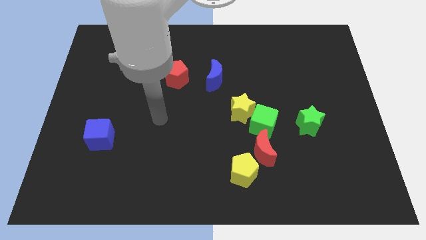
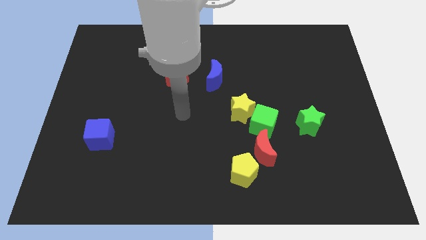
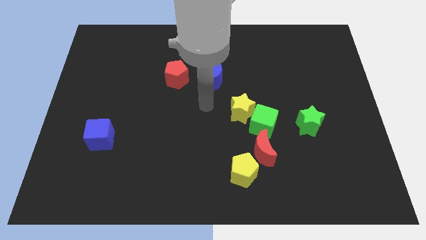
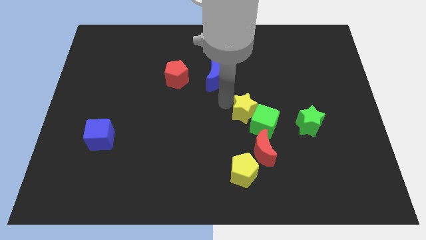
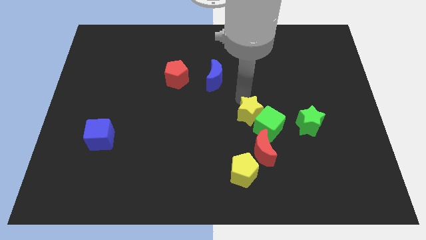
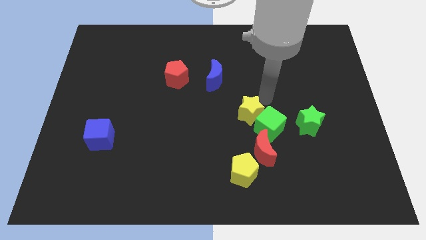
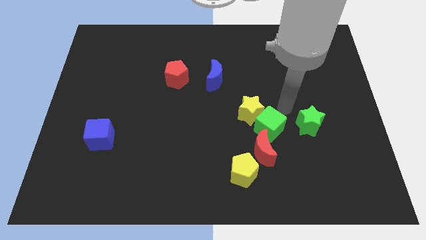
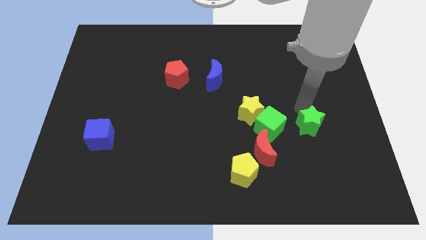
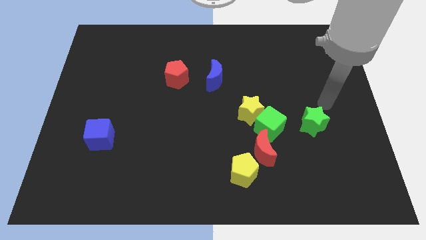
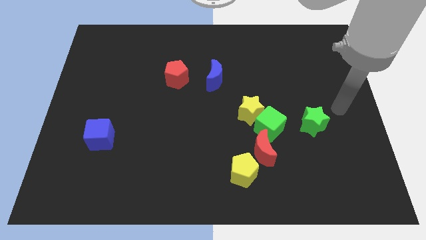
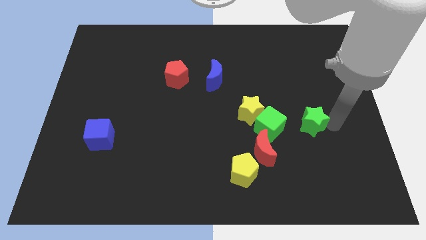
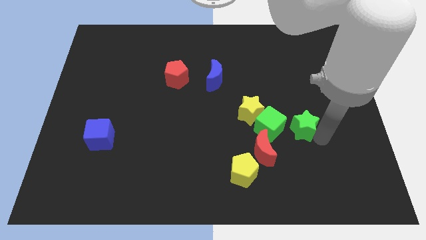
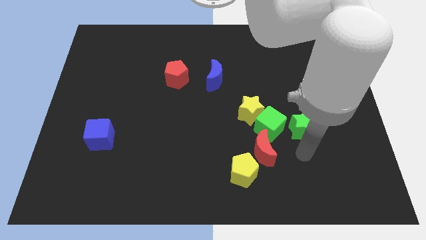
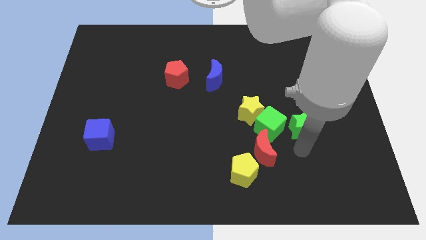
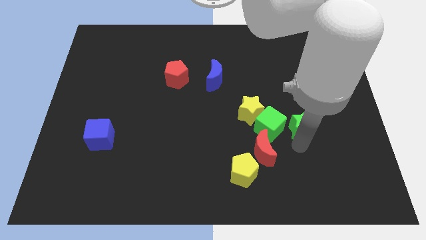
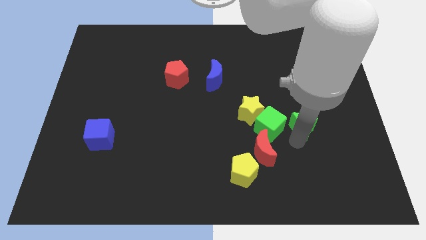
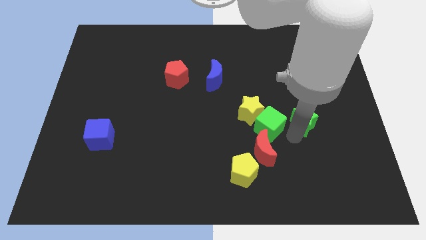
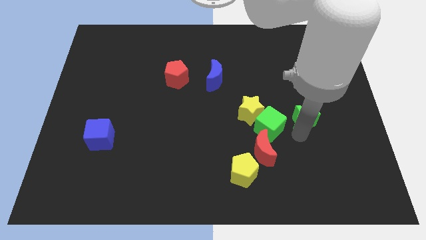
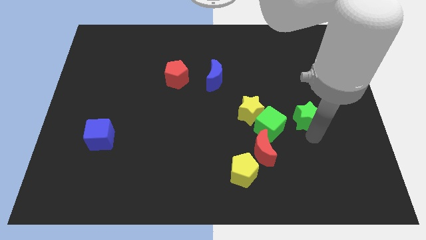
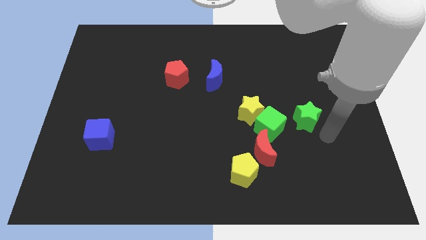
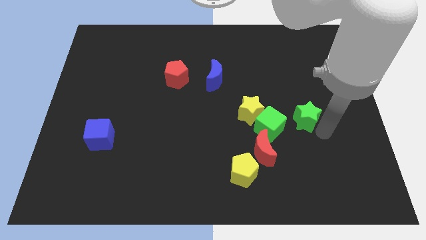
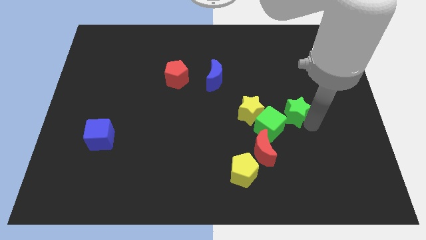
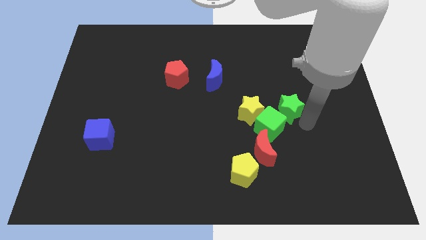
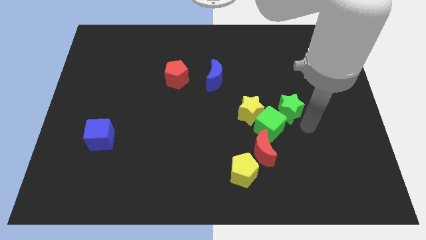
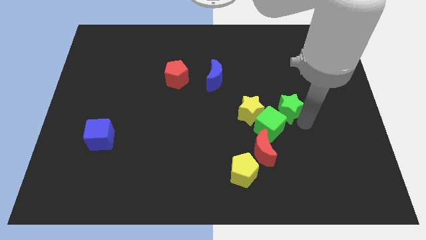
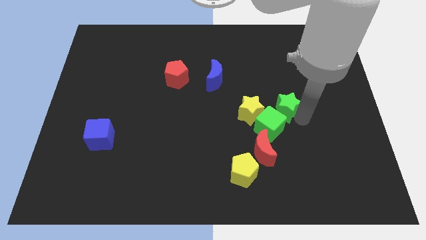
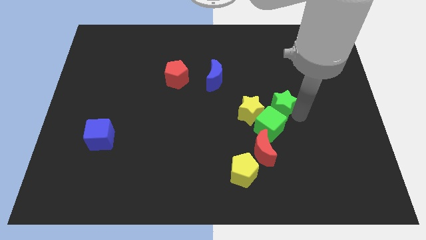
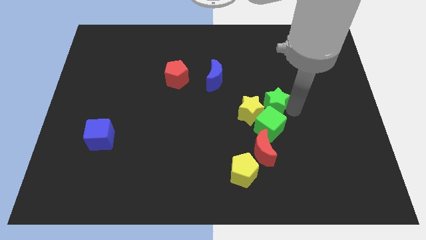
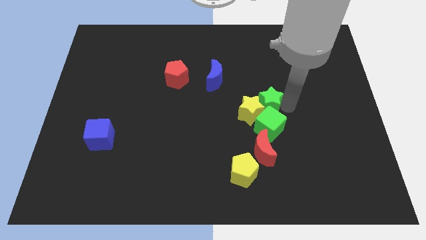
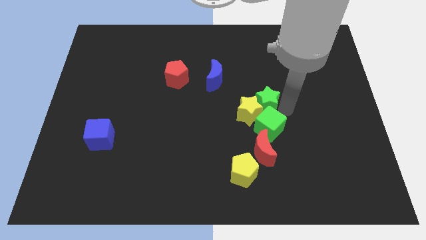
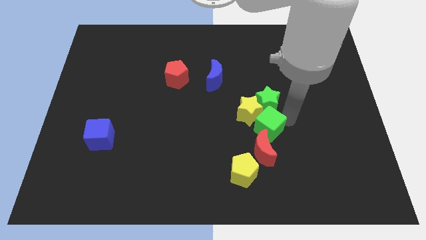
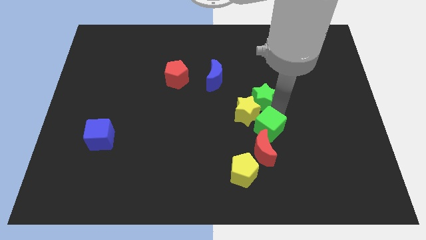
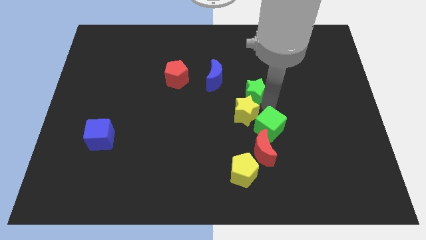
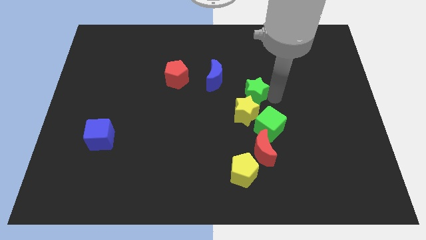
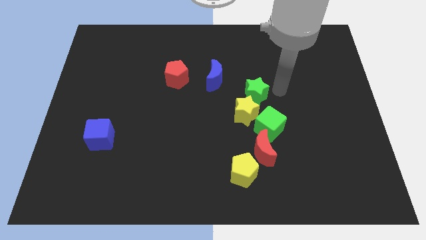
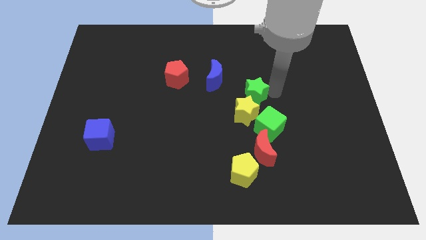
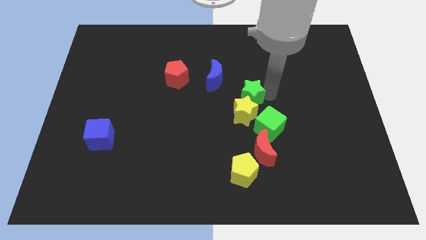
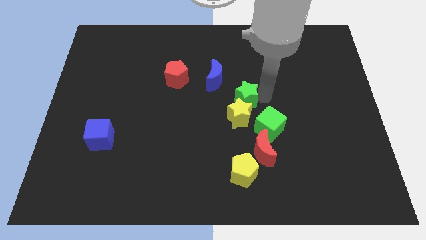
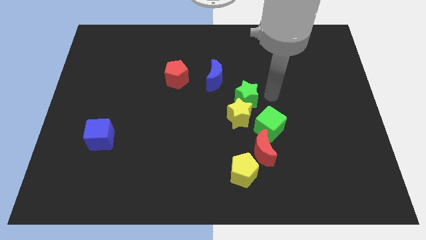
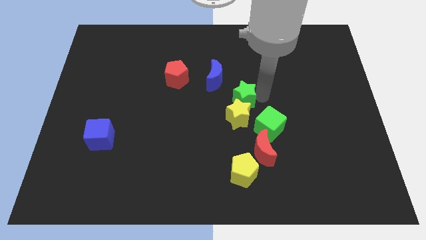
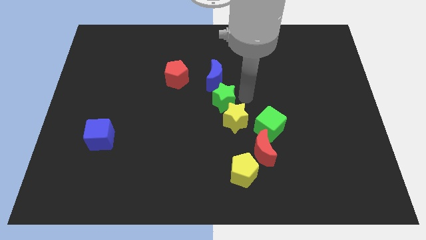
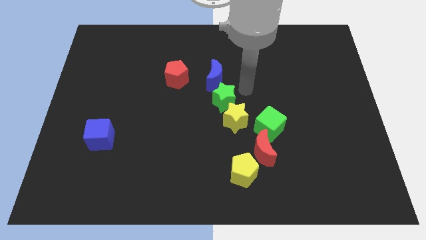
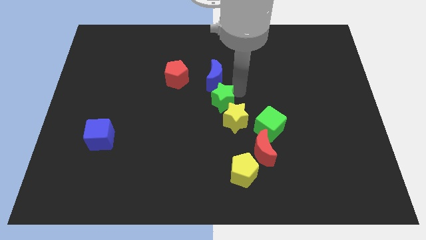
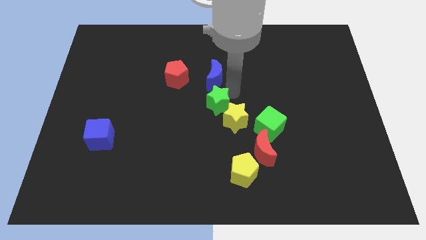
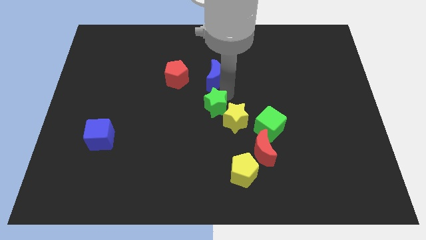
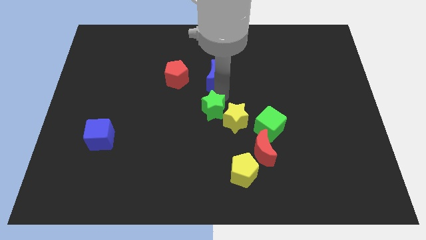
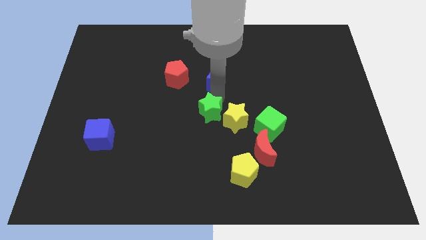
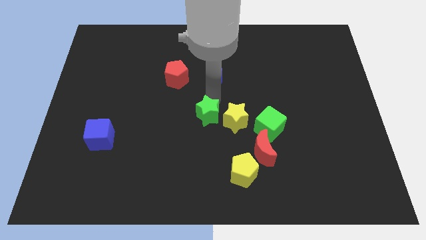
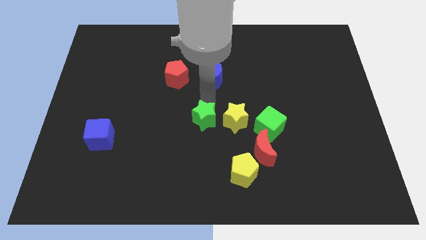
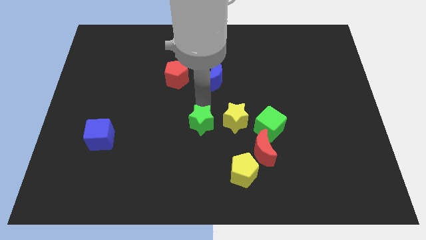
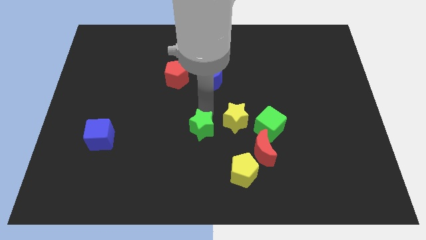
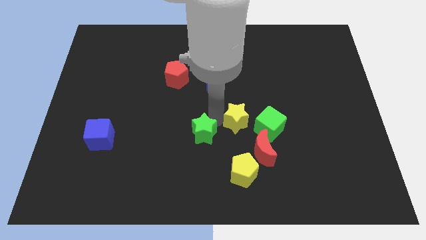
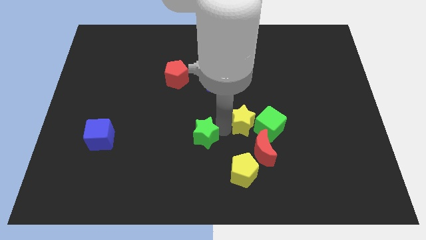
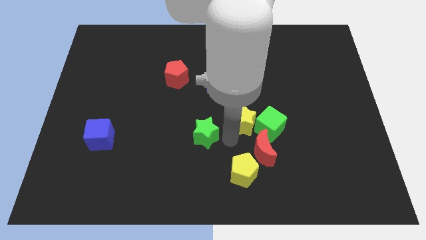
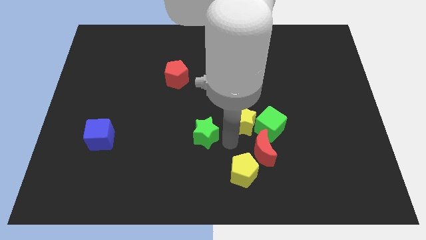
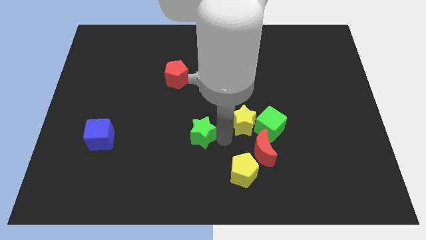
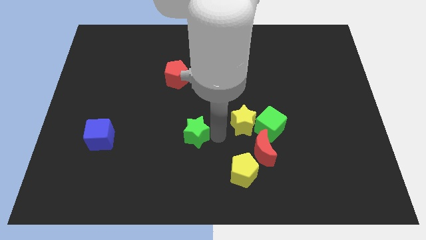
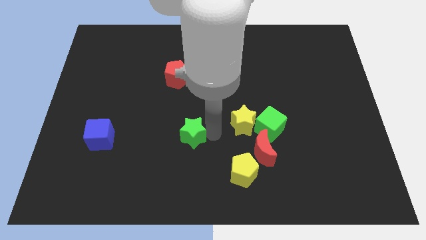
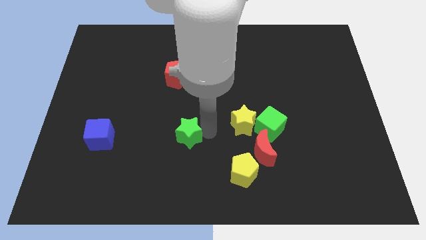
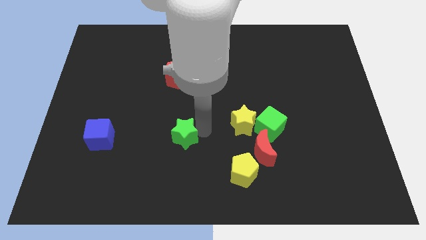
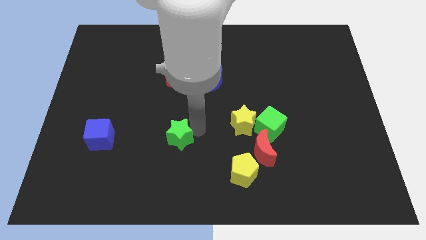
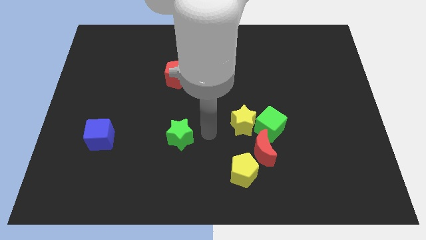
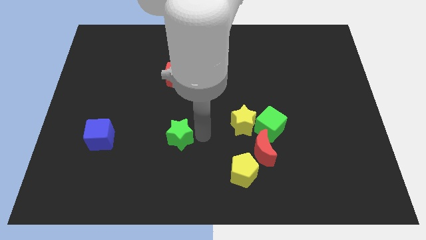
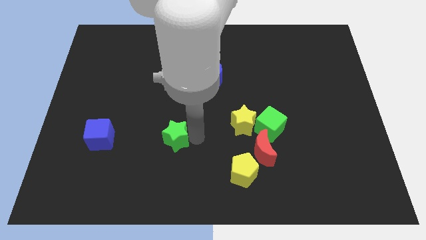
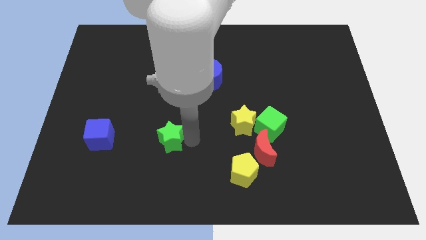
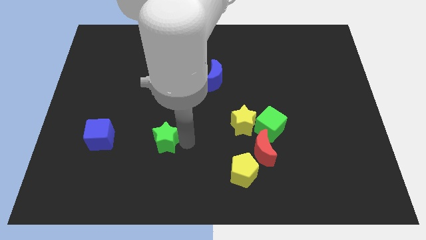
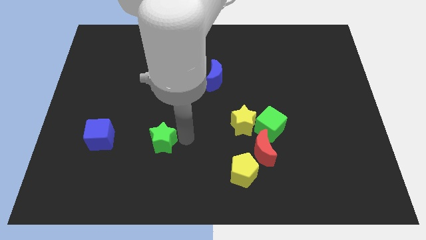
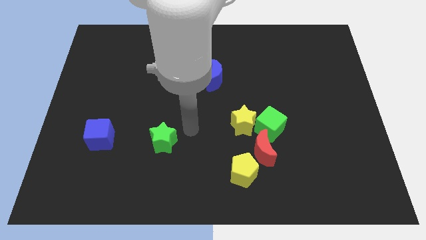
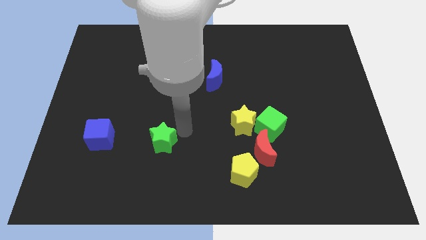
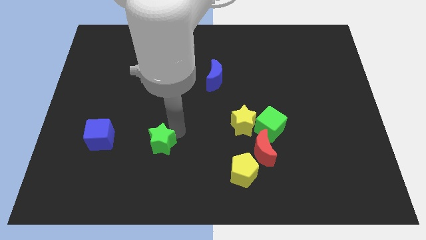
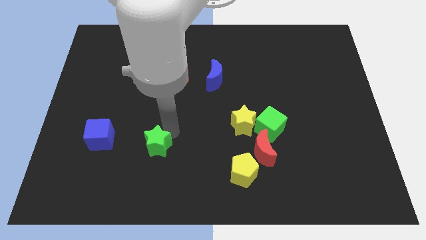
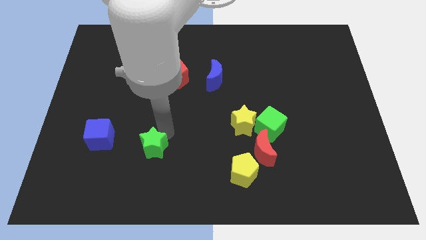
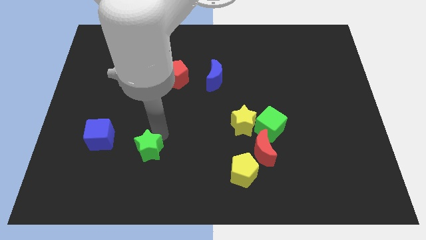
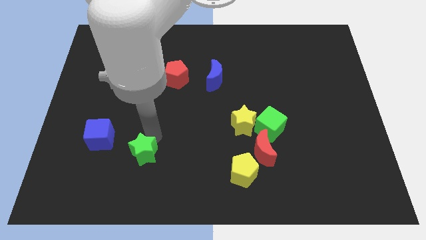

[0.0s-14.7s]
put the green star to the bottom right side of the blue cube

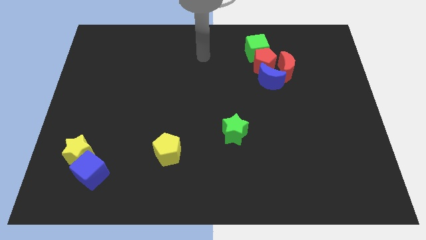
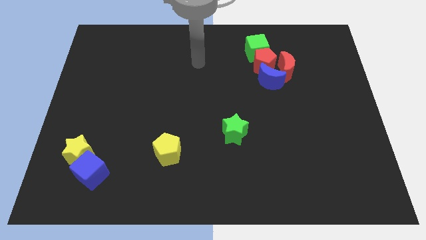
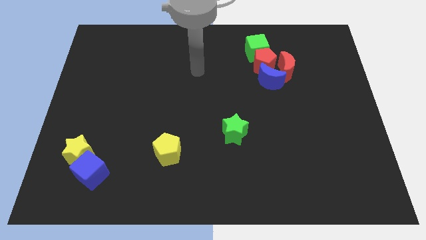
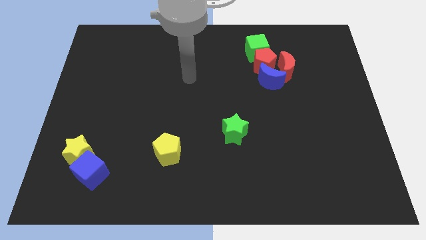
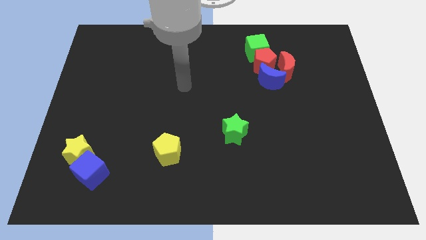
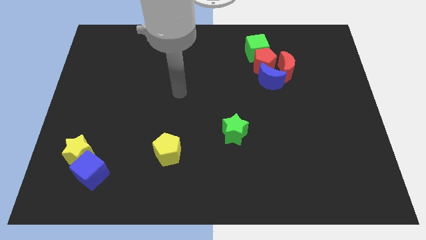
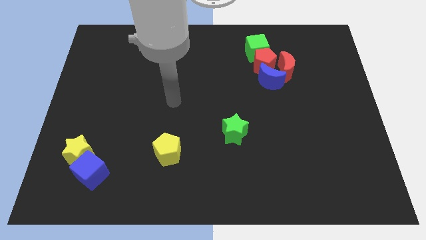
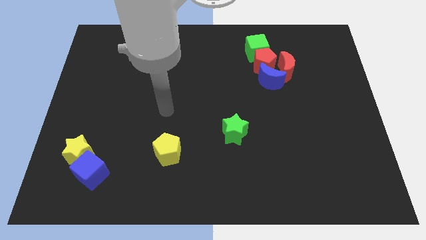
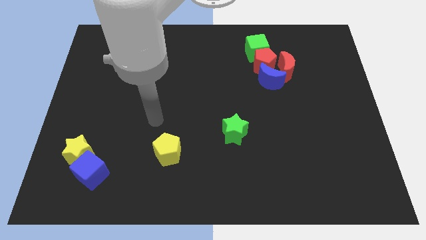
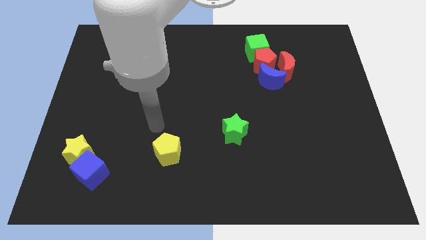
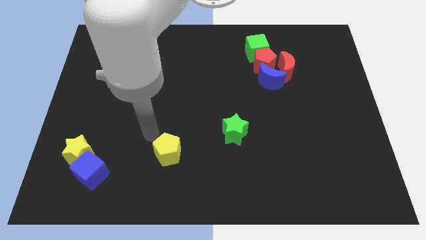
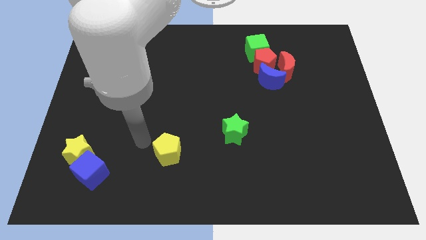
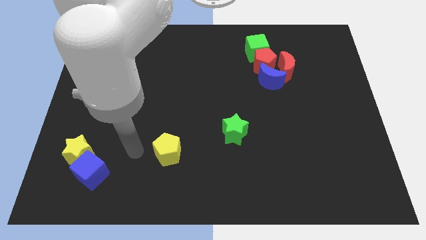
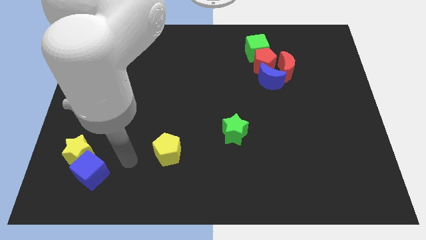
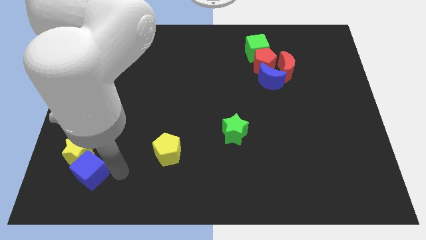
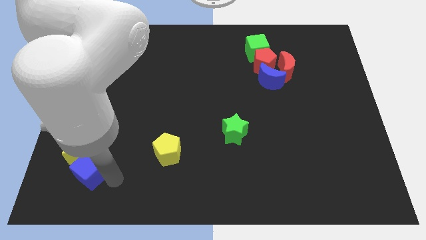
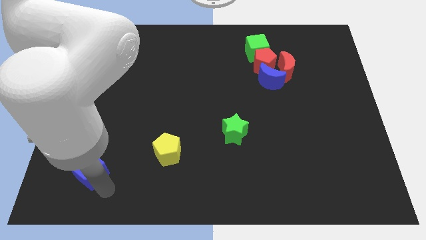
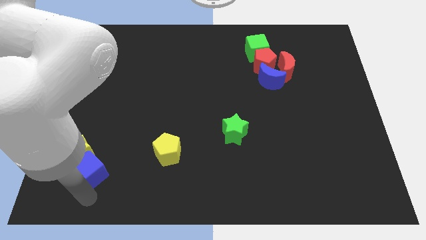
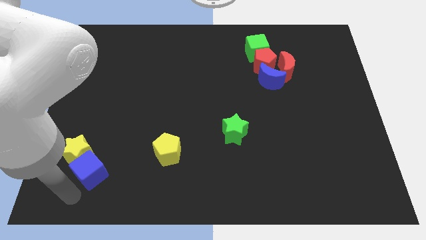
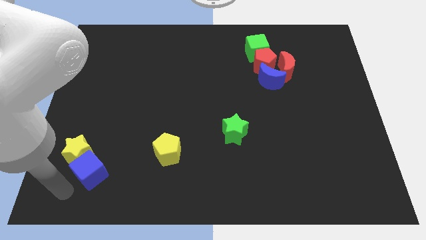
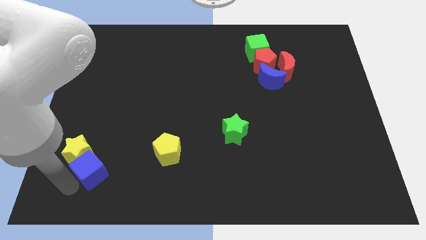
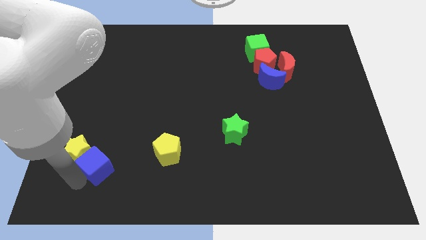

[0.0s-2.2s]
put the blue cube left of the yellow pentagon
